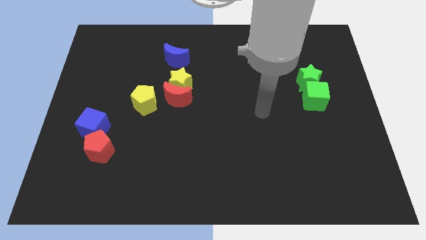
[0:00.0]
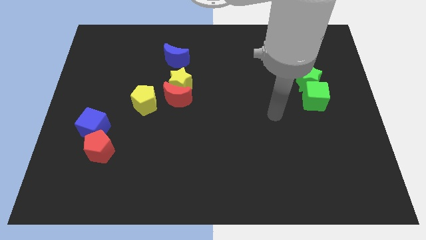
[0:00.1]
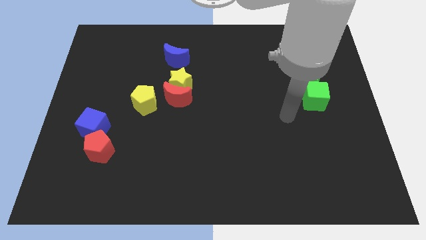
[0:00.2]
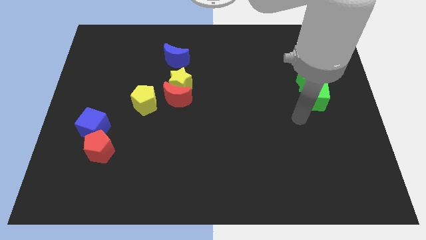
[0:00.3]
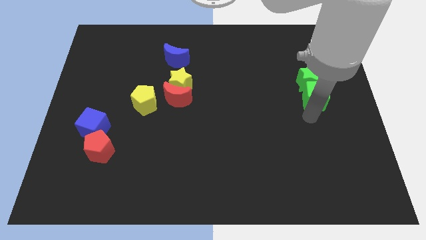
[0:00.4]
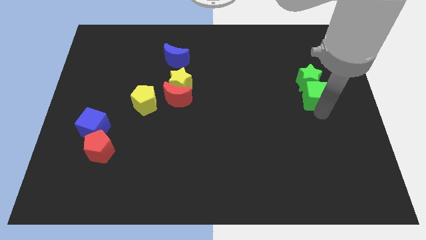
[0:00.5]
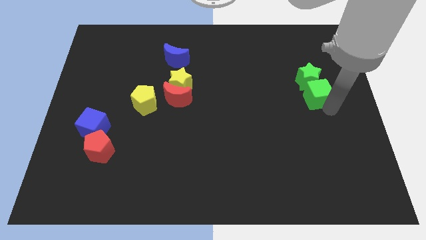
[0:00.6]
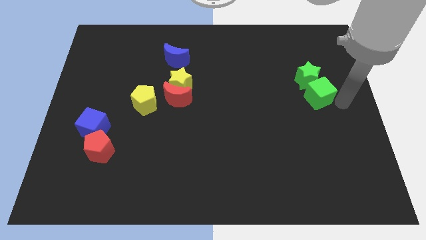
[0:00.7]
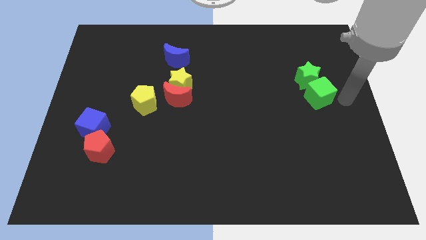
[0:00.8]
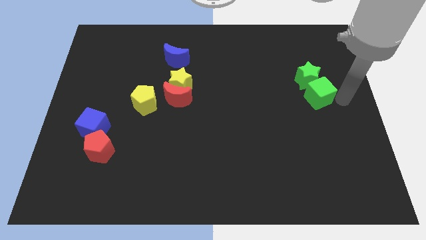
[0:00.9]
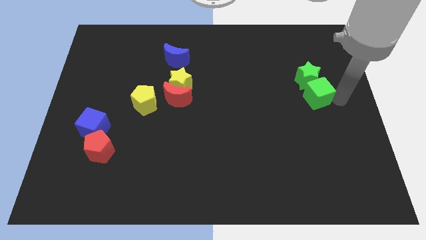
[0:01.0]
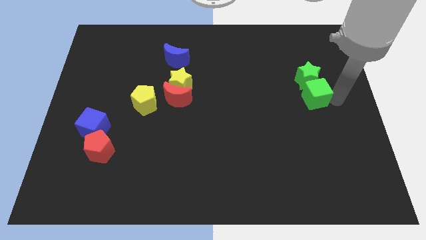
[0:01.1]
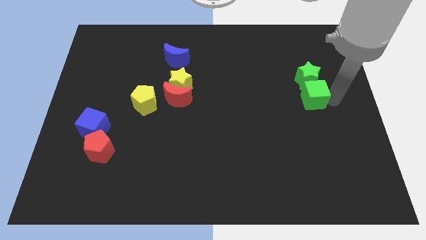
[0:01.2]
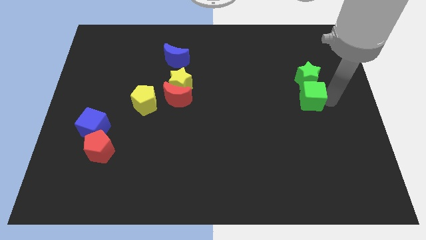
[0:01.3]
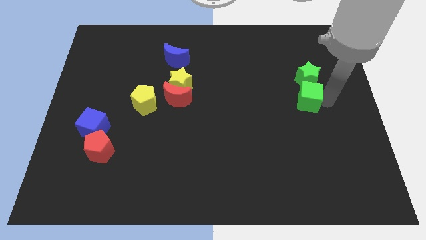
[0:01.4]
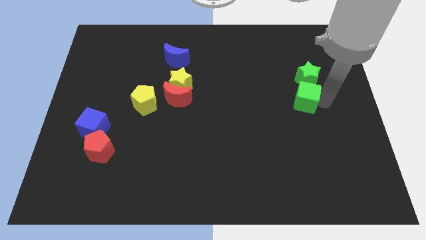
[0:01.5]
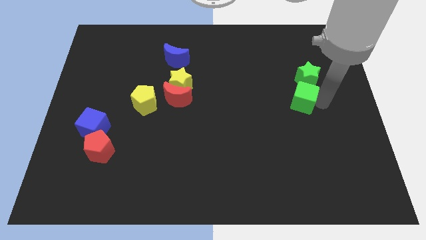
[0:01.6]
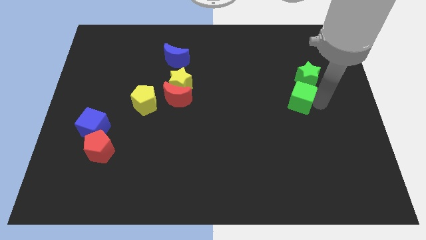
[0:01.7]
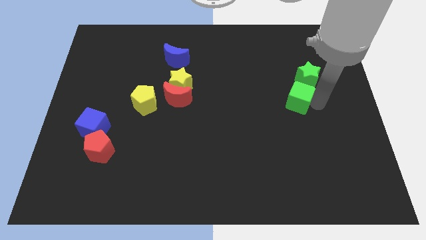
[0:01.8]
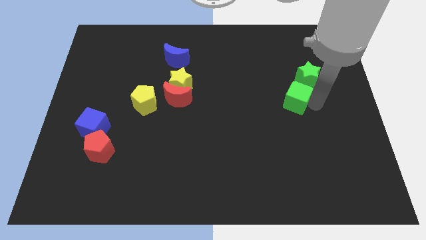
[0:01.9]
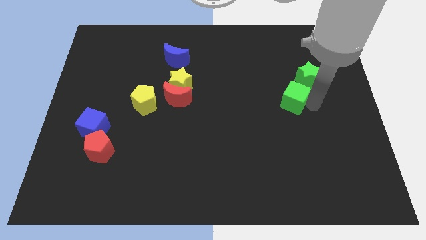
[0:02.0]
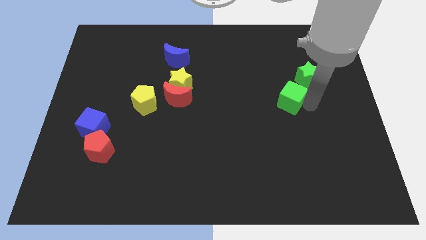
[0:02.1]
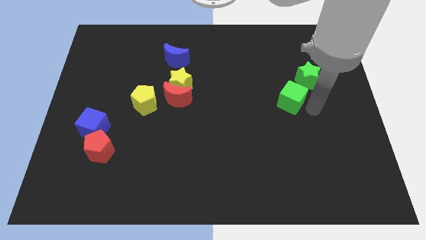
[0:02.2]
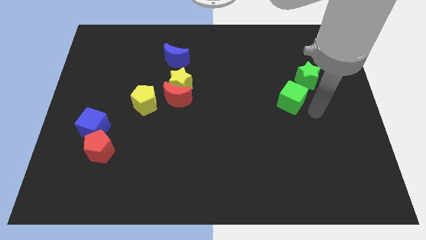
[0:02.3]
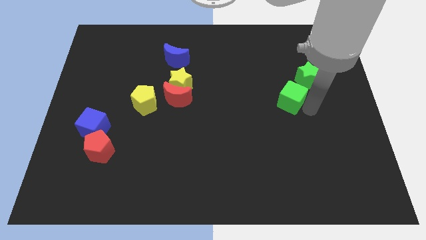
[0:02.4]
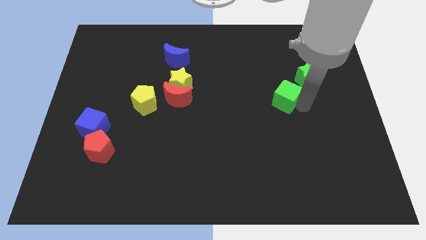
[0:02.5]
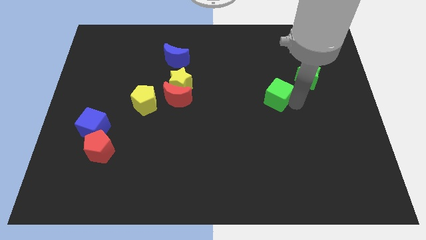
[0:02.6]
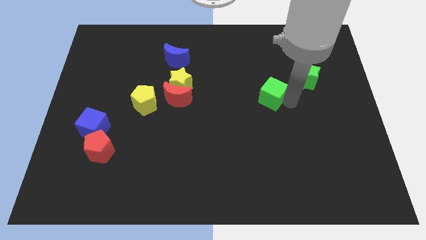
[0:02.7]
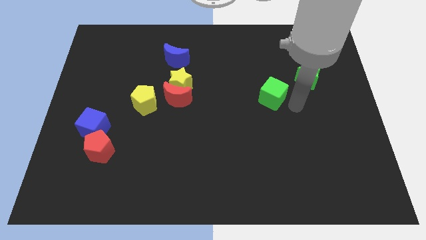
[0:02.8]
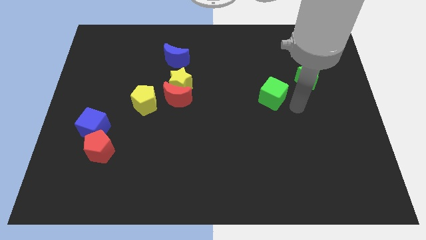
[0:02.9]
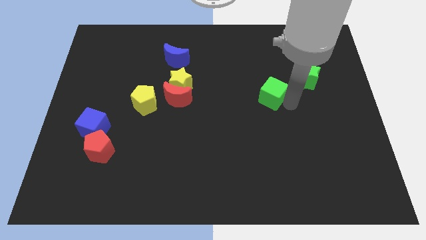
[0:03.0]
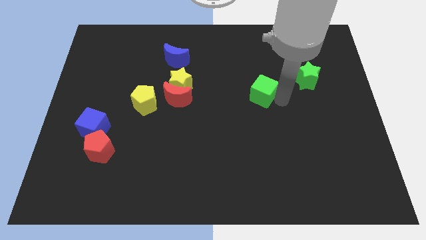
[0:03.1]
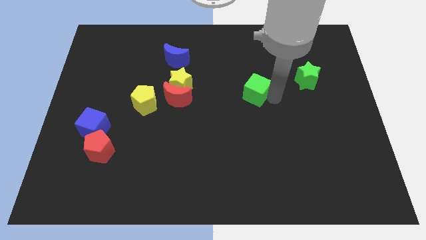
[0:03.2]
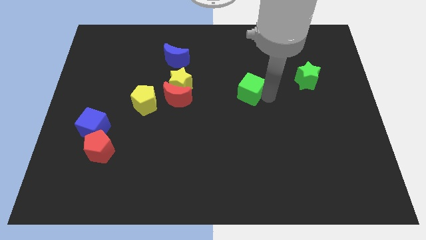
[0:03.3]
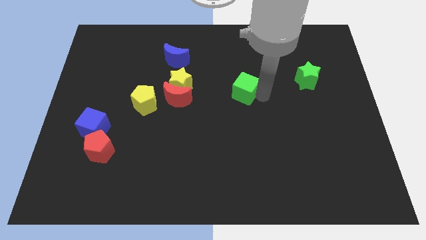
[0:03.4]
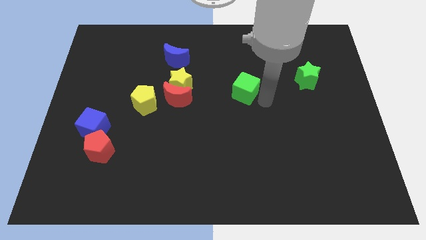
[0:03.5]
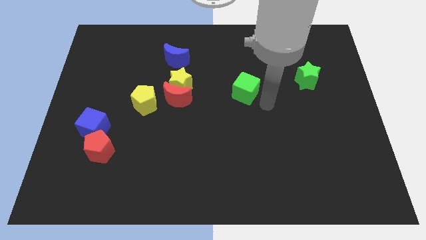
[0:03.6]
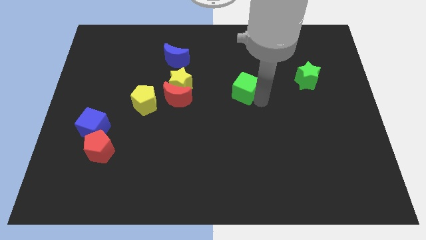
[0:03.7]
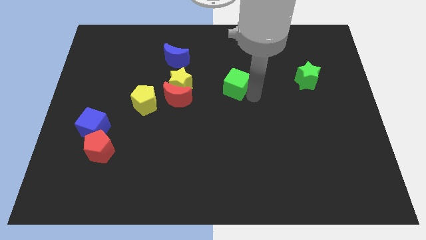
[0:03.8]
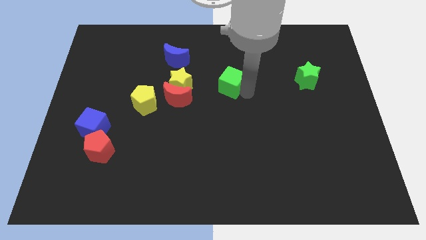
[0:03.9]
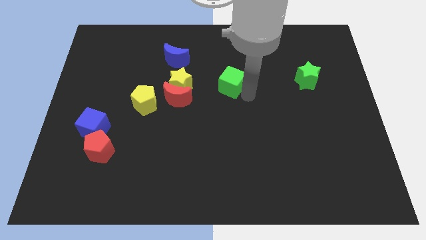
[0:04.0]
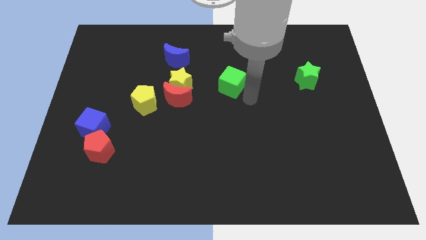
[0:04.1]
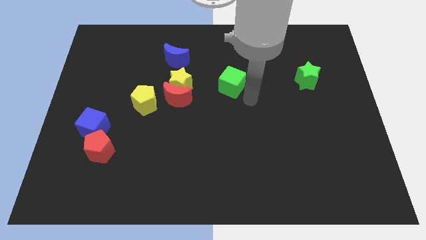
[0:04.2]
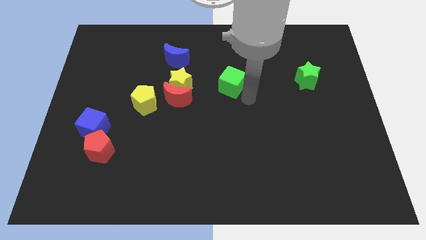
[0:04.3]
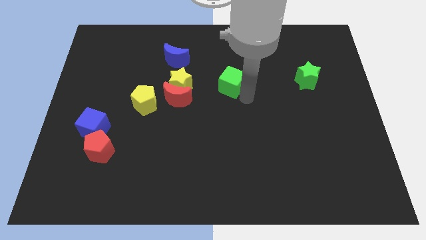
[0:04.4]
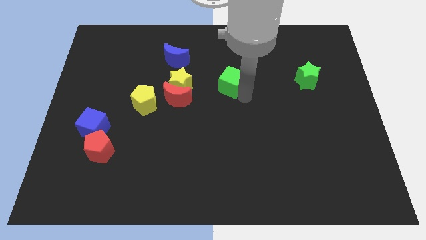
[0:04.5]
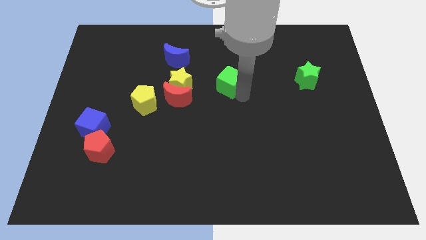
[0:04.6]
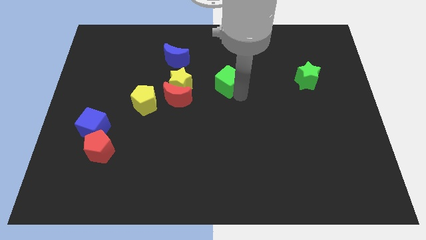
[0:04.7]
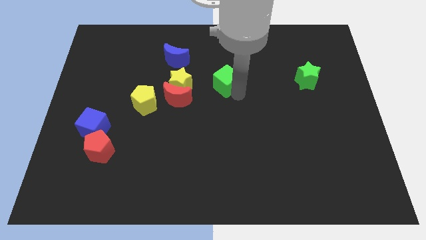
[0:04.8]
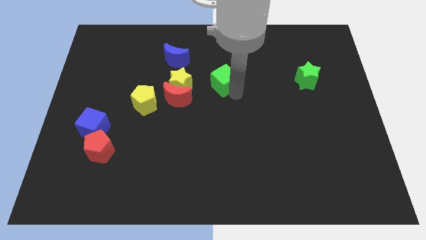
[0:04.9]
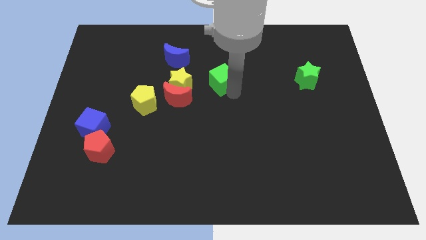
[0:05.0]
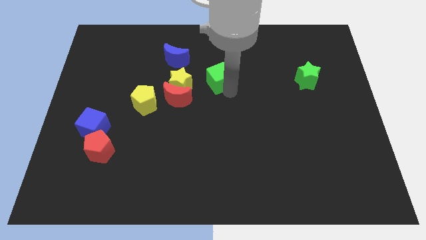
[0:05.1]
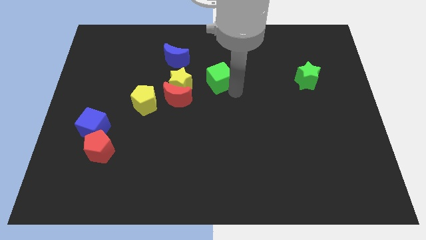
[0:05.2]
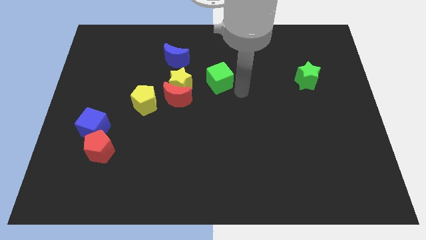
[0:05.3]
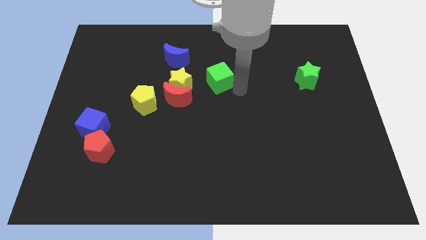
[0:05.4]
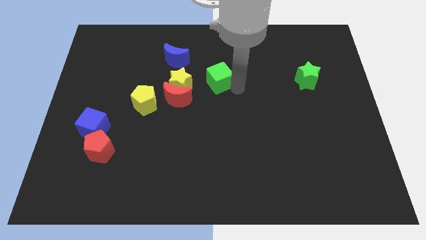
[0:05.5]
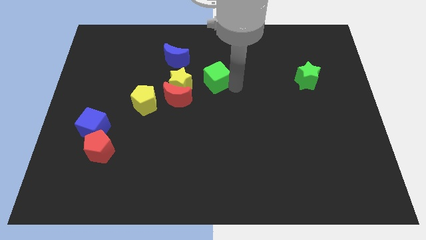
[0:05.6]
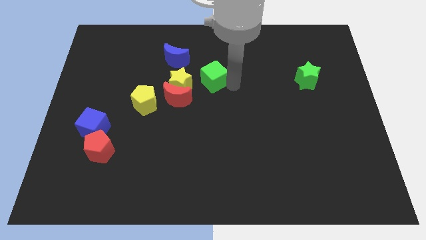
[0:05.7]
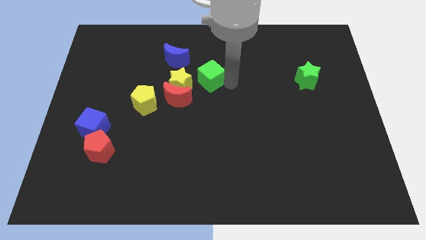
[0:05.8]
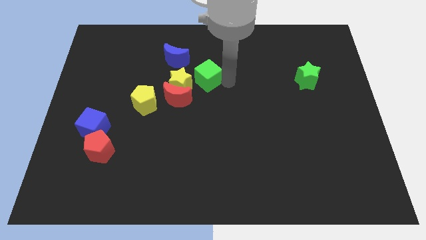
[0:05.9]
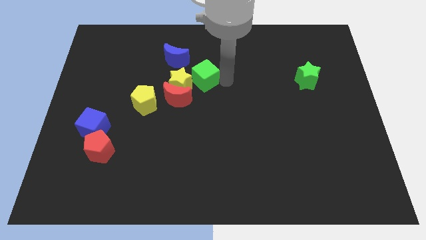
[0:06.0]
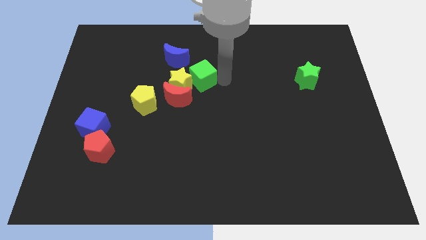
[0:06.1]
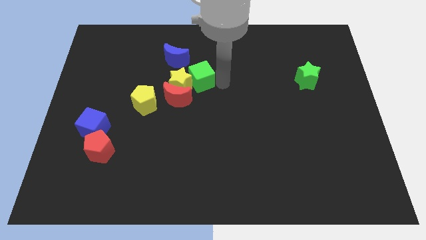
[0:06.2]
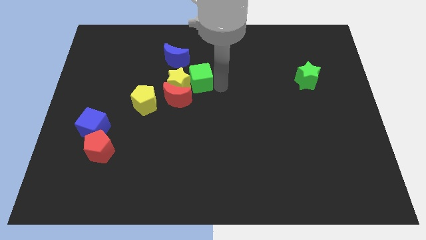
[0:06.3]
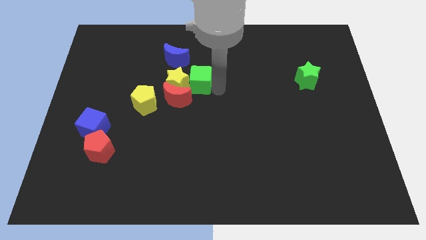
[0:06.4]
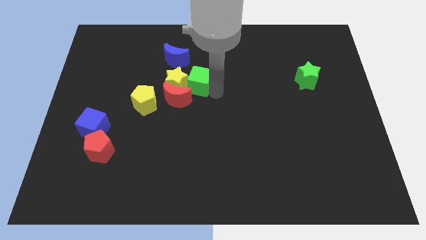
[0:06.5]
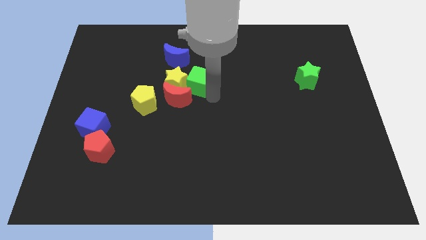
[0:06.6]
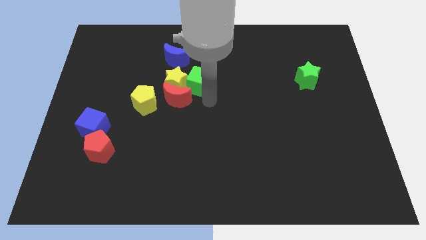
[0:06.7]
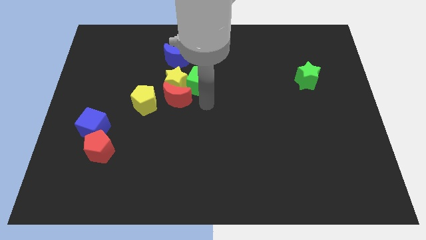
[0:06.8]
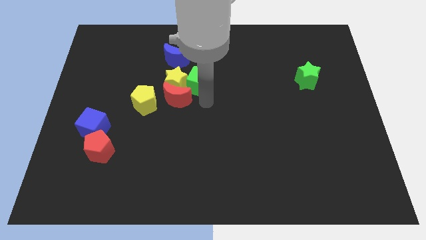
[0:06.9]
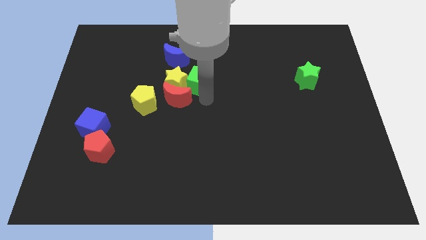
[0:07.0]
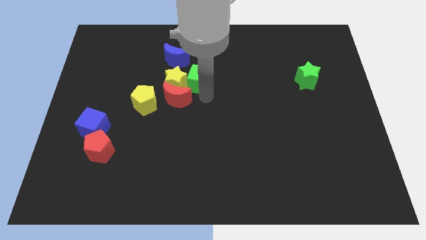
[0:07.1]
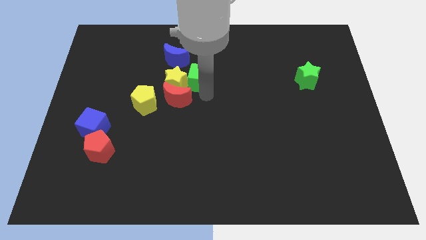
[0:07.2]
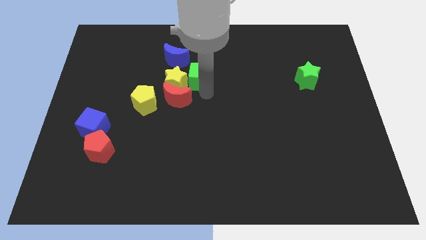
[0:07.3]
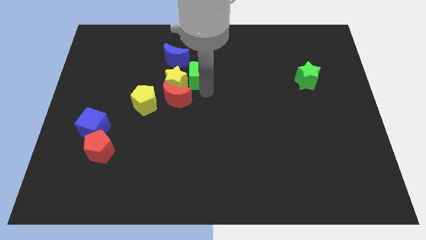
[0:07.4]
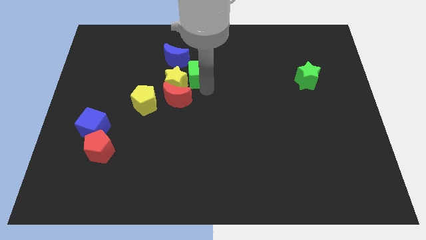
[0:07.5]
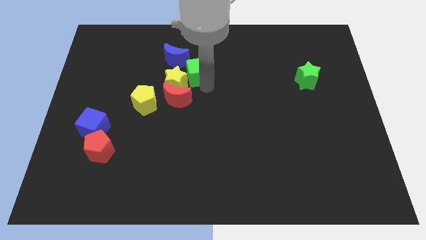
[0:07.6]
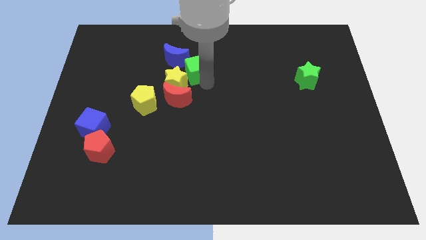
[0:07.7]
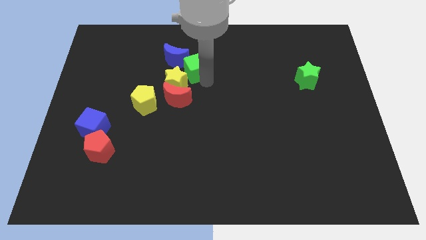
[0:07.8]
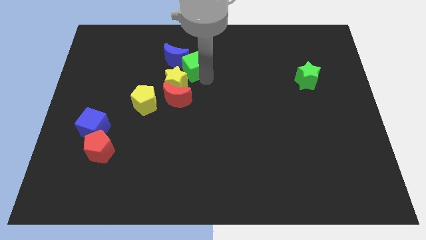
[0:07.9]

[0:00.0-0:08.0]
put the green cube close to the blue moon

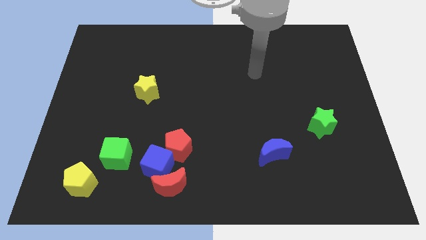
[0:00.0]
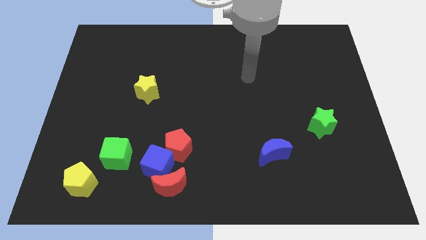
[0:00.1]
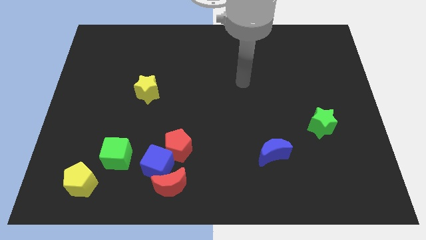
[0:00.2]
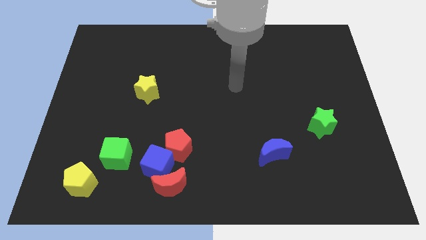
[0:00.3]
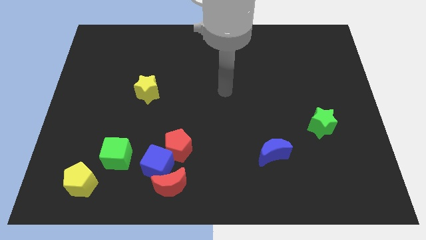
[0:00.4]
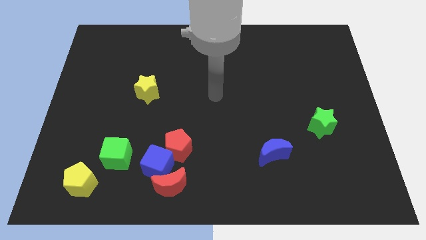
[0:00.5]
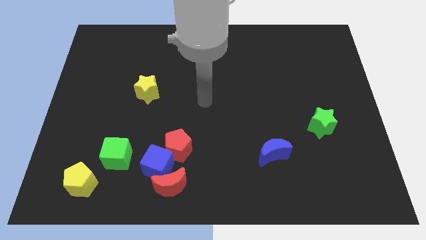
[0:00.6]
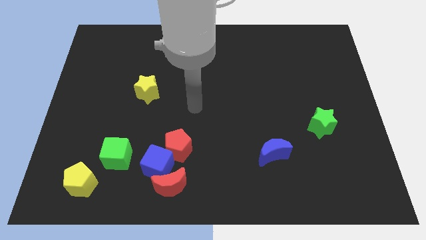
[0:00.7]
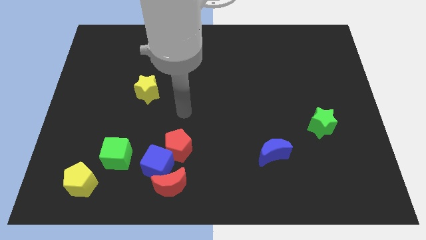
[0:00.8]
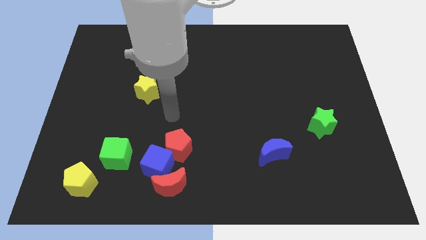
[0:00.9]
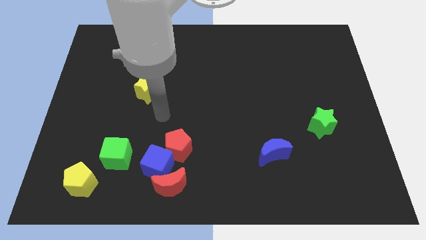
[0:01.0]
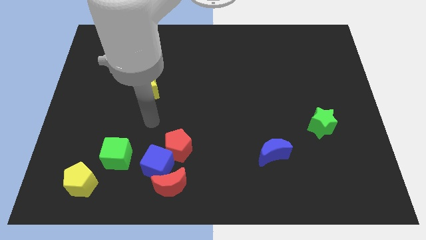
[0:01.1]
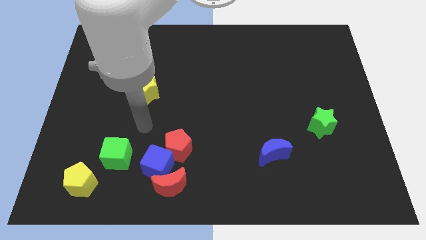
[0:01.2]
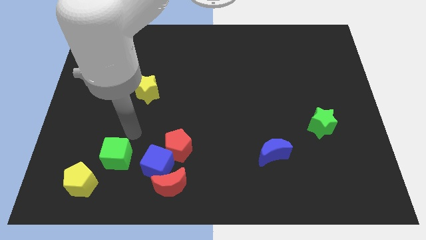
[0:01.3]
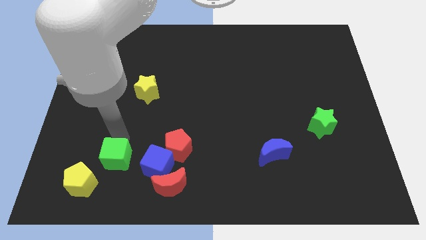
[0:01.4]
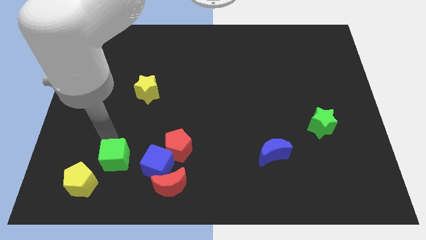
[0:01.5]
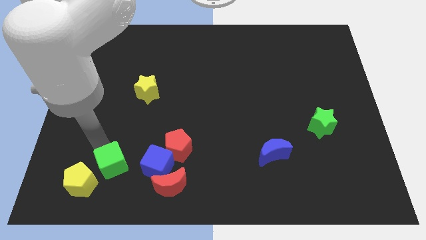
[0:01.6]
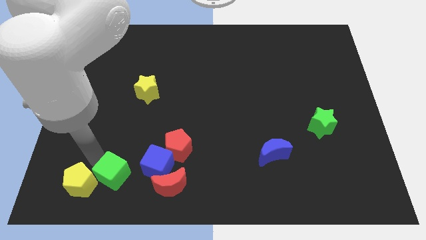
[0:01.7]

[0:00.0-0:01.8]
put the yellow pentagon to the green cube
